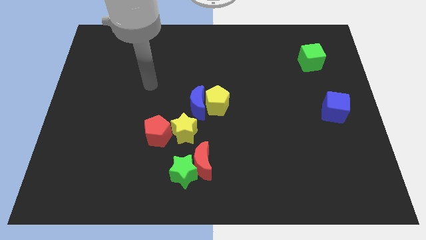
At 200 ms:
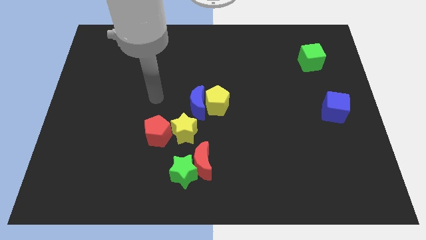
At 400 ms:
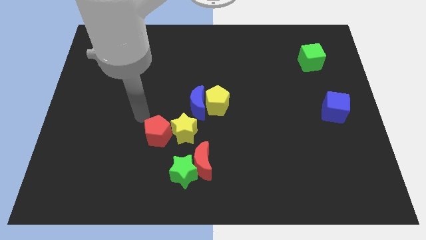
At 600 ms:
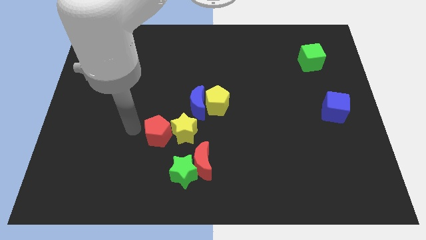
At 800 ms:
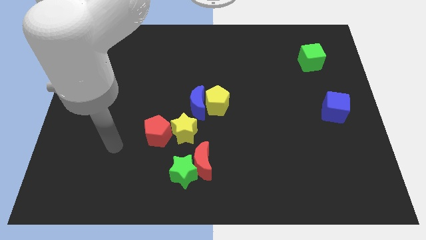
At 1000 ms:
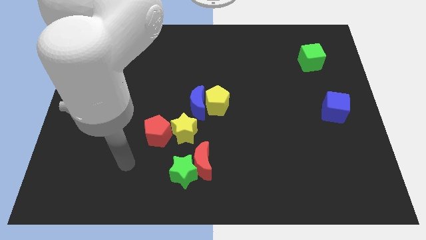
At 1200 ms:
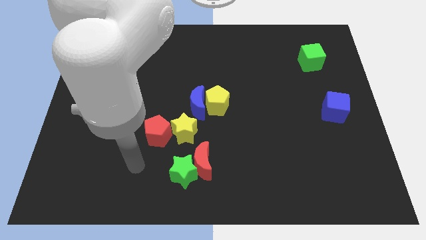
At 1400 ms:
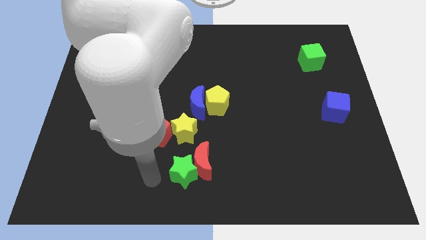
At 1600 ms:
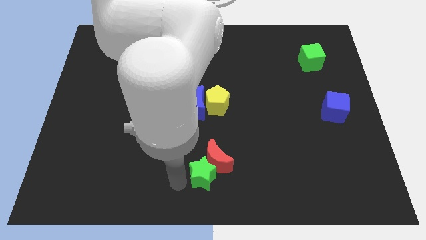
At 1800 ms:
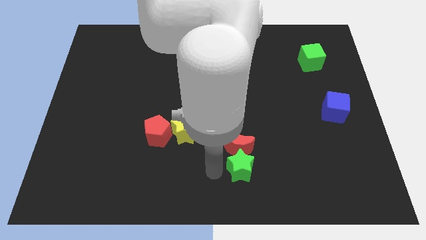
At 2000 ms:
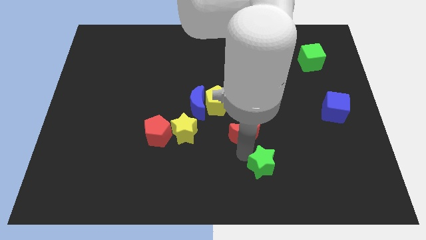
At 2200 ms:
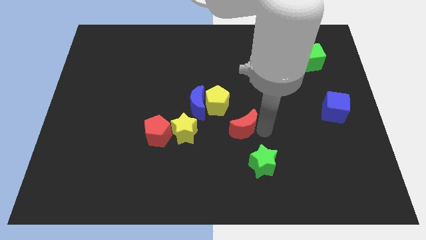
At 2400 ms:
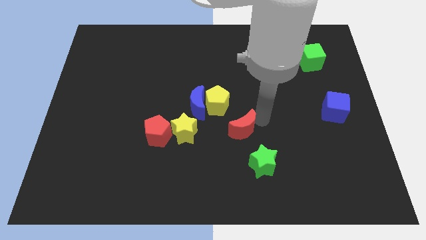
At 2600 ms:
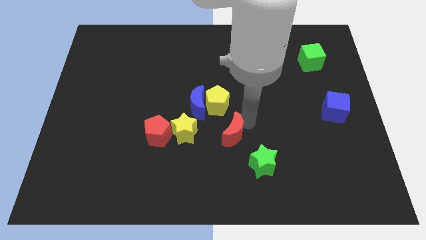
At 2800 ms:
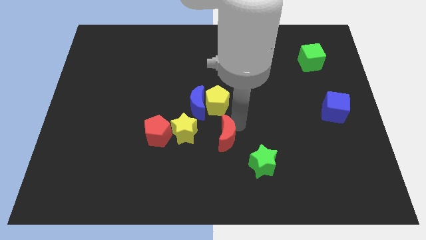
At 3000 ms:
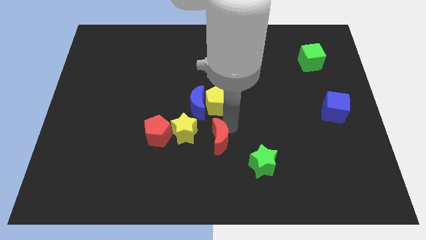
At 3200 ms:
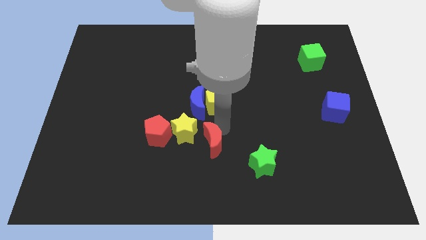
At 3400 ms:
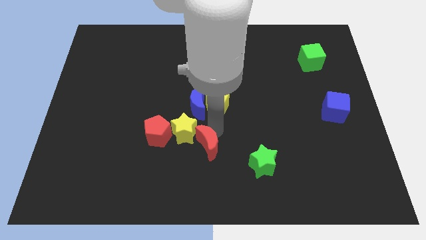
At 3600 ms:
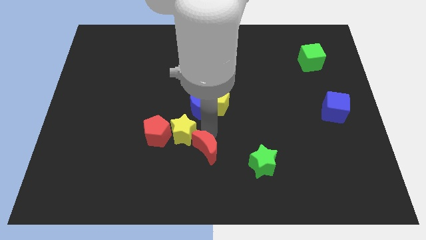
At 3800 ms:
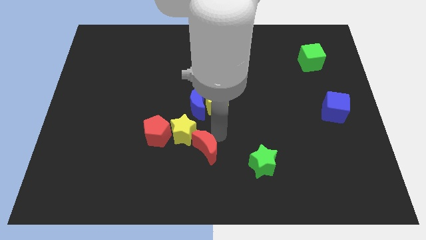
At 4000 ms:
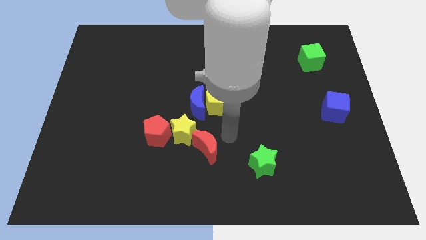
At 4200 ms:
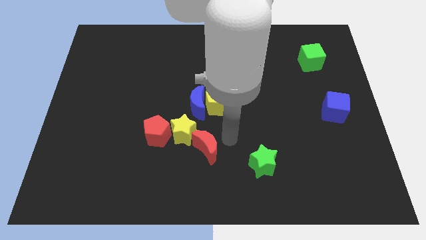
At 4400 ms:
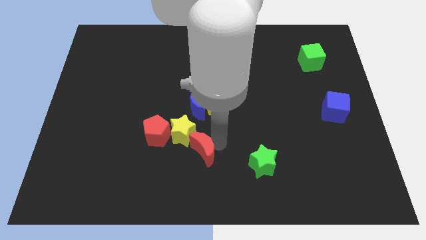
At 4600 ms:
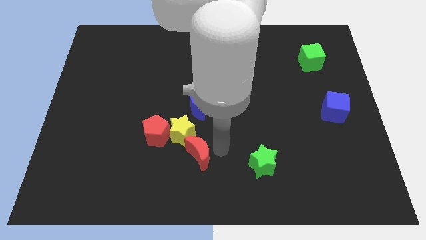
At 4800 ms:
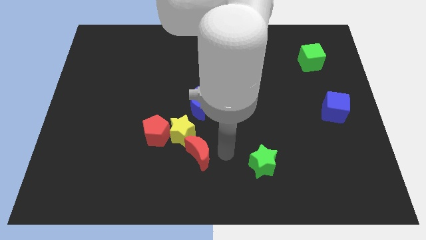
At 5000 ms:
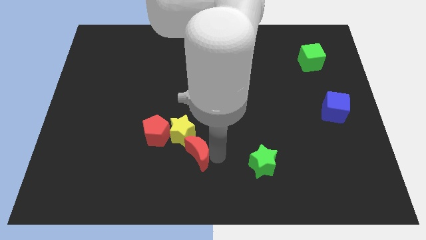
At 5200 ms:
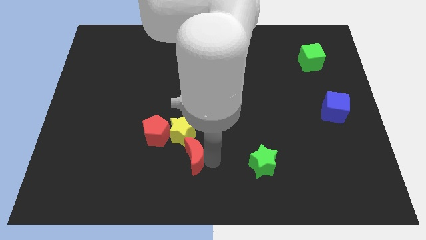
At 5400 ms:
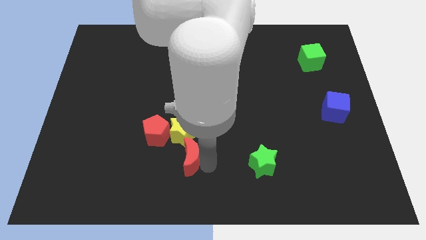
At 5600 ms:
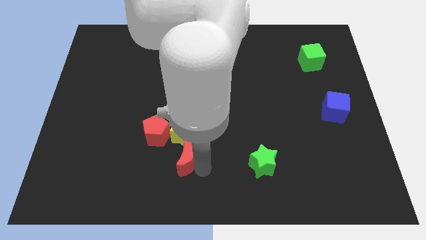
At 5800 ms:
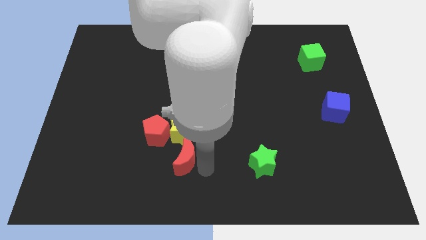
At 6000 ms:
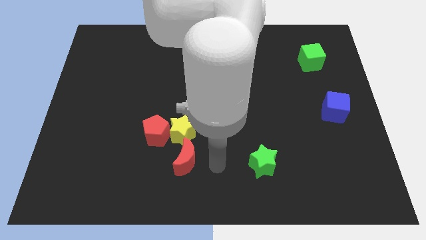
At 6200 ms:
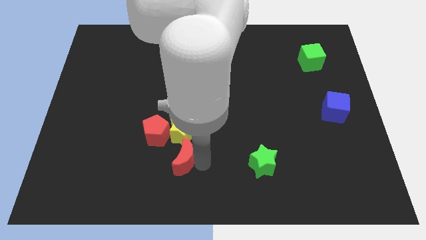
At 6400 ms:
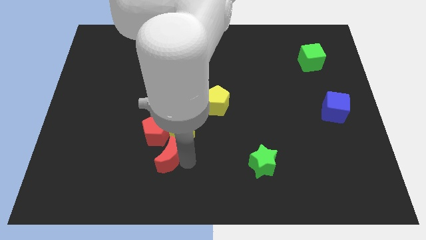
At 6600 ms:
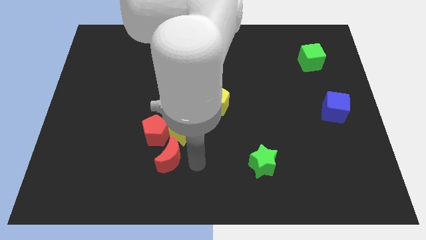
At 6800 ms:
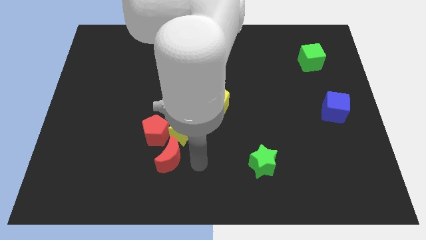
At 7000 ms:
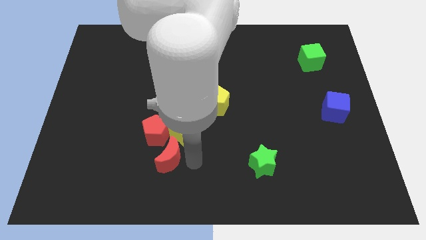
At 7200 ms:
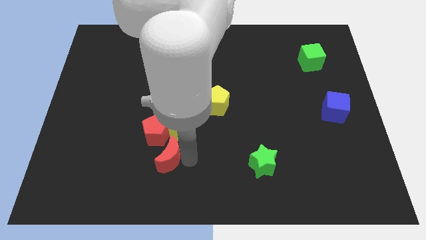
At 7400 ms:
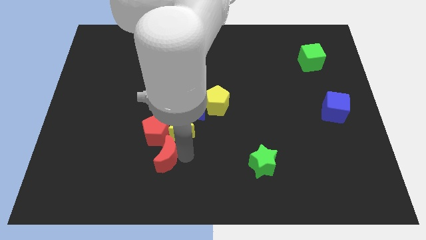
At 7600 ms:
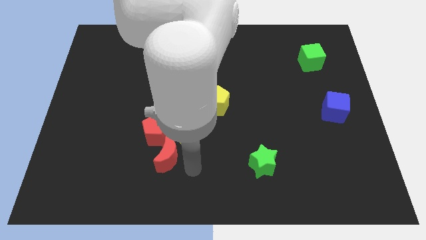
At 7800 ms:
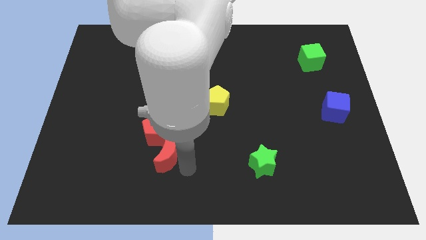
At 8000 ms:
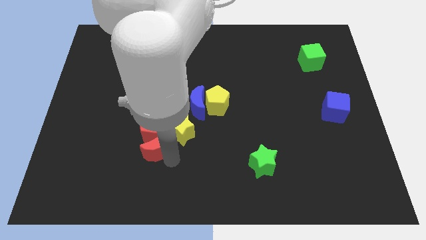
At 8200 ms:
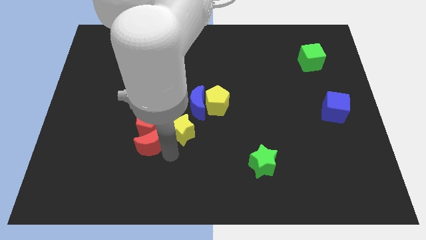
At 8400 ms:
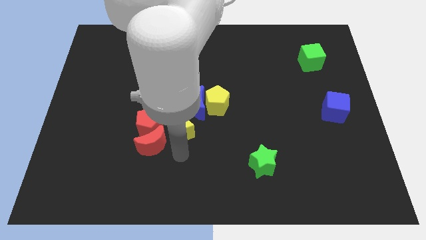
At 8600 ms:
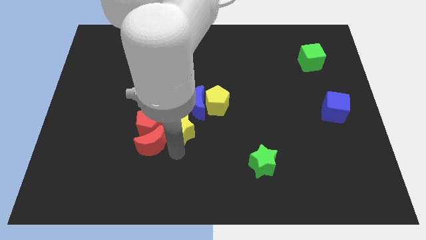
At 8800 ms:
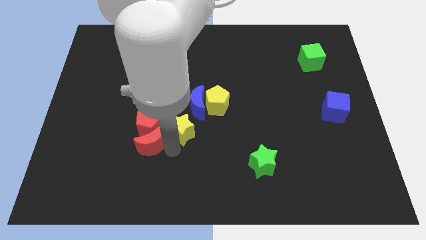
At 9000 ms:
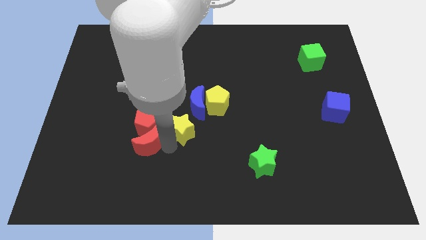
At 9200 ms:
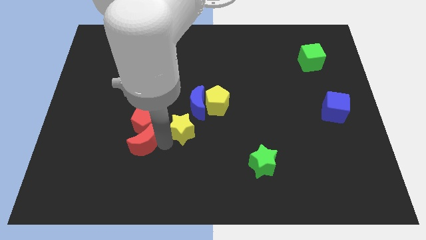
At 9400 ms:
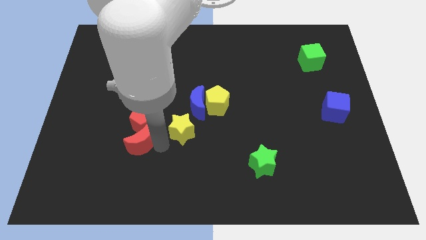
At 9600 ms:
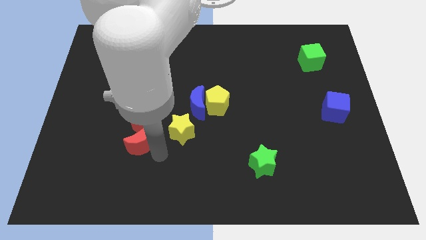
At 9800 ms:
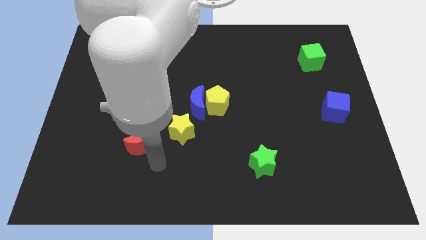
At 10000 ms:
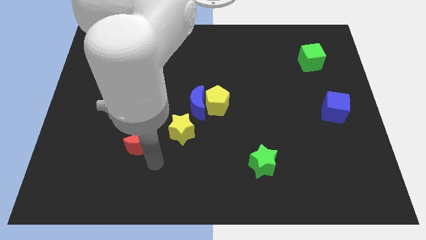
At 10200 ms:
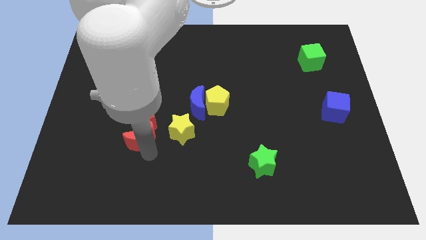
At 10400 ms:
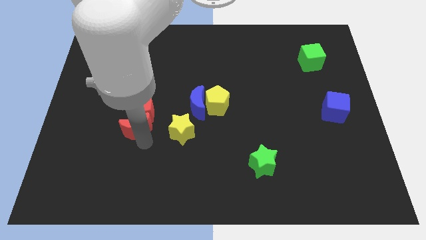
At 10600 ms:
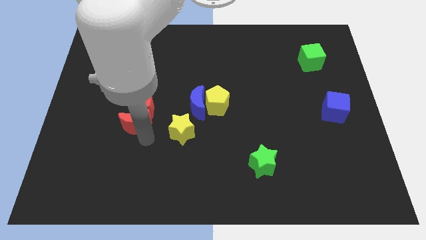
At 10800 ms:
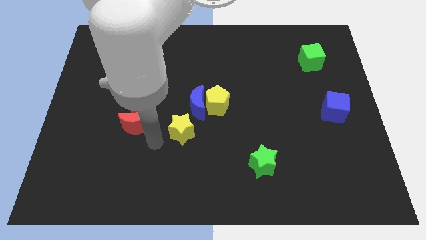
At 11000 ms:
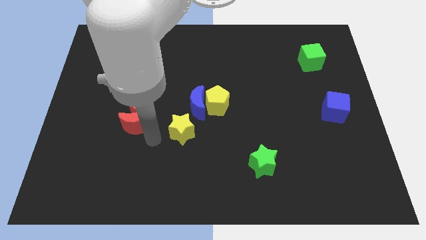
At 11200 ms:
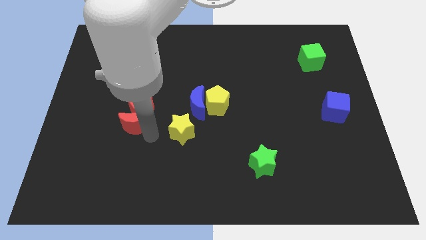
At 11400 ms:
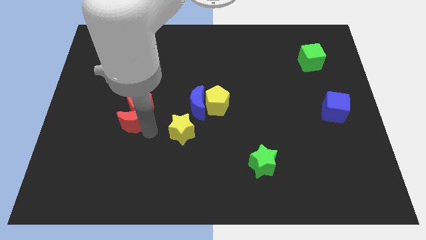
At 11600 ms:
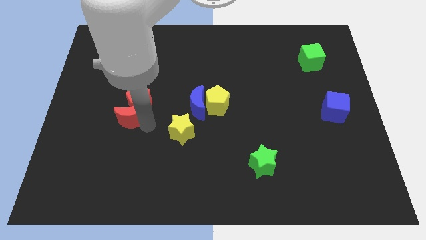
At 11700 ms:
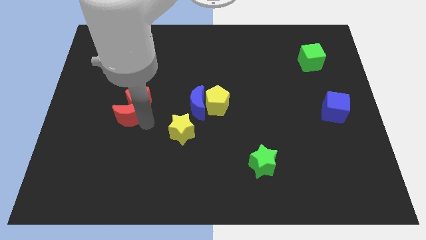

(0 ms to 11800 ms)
push the red moon up and to the left

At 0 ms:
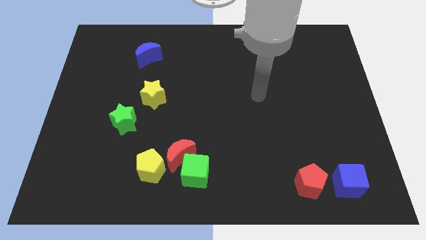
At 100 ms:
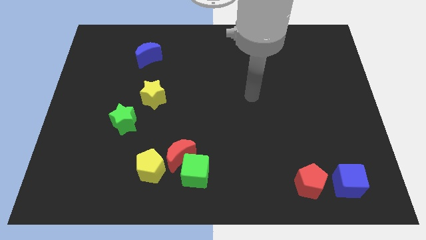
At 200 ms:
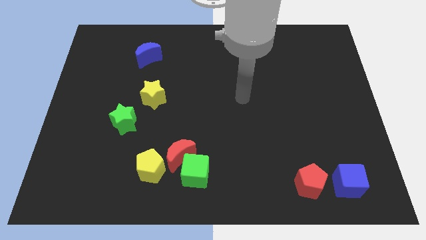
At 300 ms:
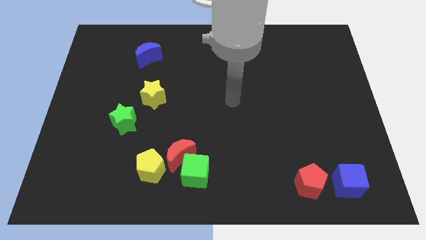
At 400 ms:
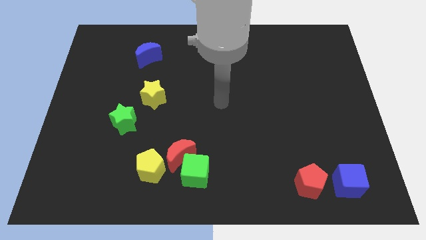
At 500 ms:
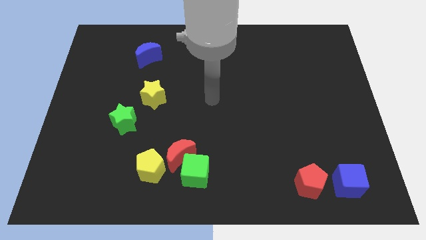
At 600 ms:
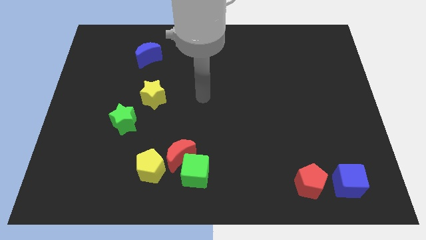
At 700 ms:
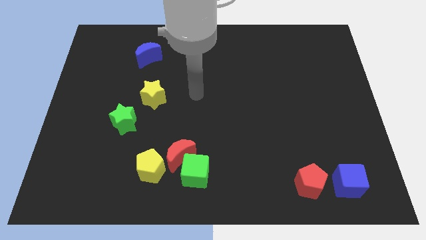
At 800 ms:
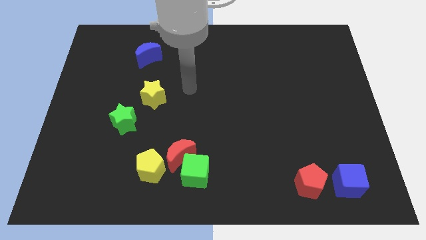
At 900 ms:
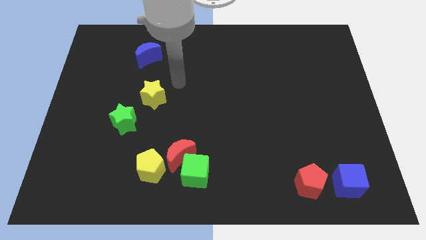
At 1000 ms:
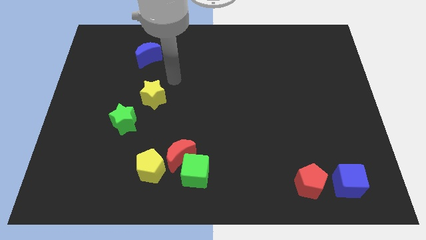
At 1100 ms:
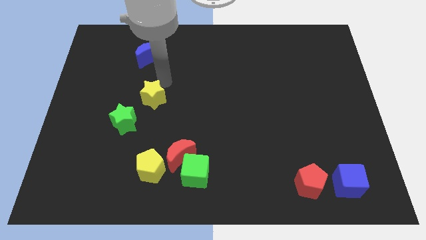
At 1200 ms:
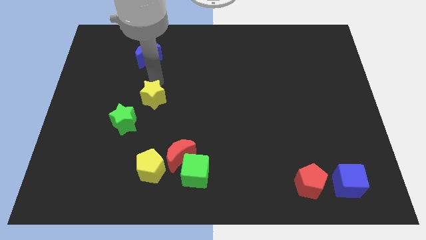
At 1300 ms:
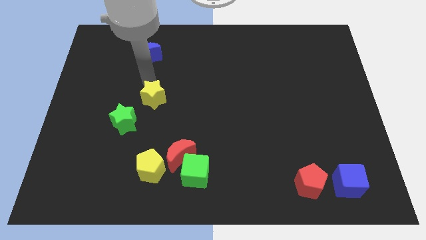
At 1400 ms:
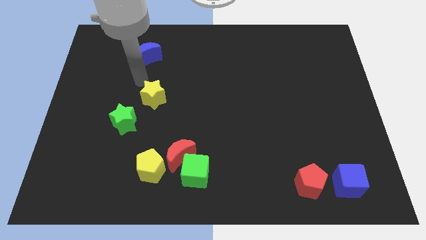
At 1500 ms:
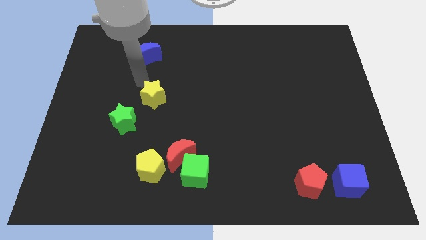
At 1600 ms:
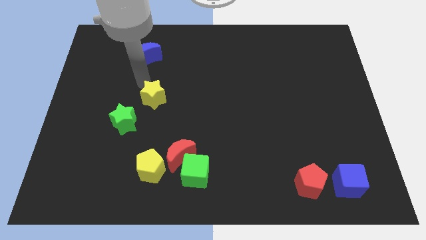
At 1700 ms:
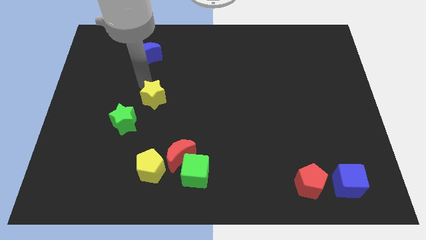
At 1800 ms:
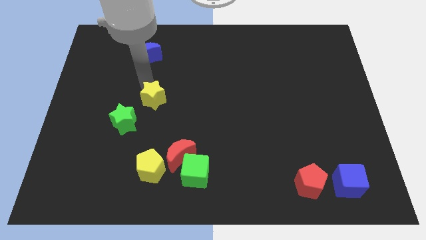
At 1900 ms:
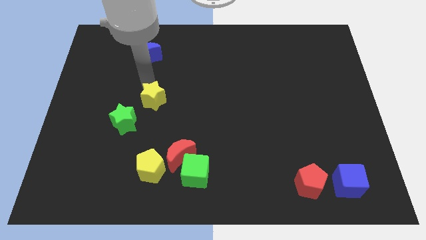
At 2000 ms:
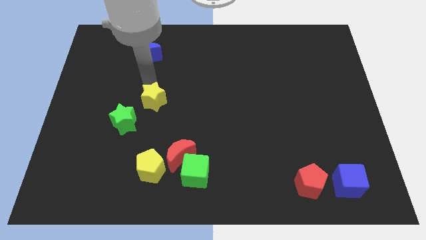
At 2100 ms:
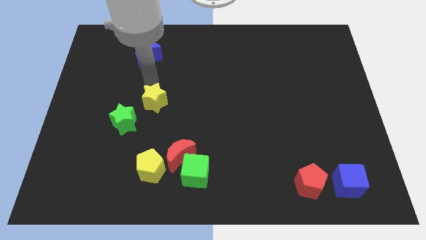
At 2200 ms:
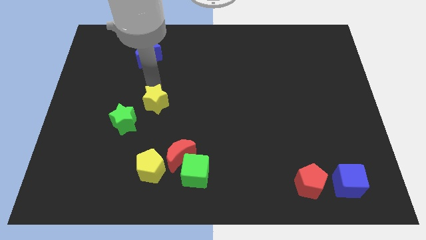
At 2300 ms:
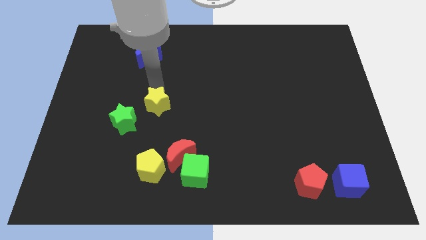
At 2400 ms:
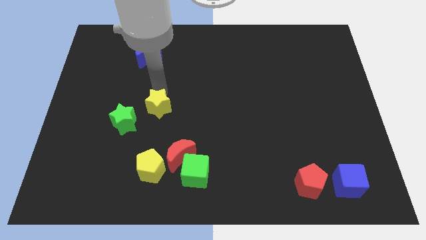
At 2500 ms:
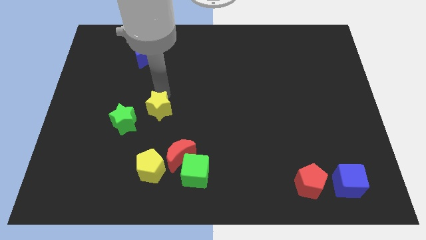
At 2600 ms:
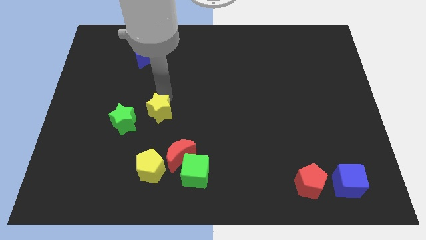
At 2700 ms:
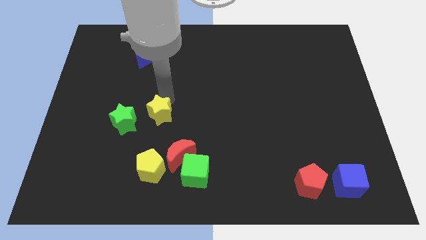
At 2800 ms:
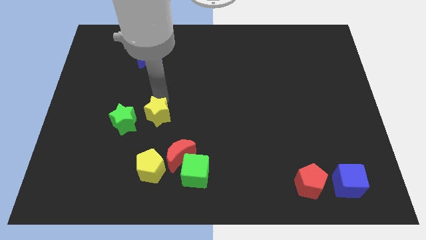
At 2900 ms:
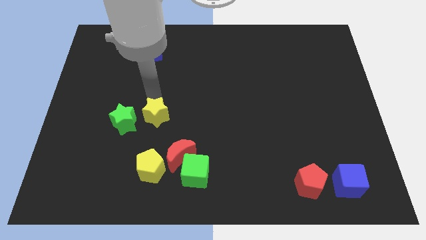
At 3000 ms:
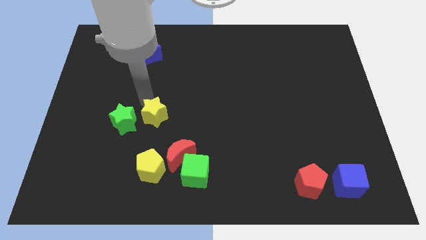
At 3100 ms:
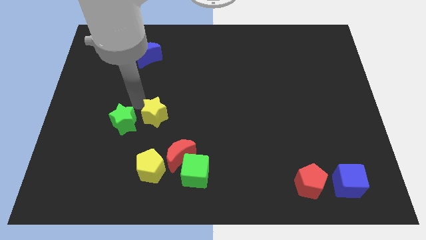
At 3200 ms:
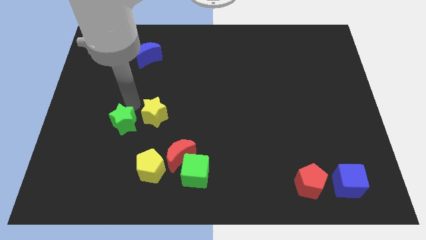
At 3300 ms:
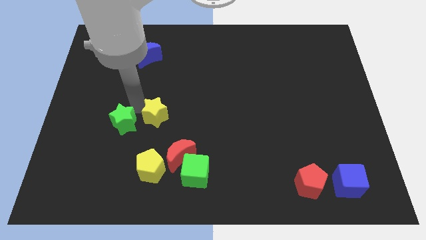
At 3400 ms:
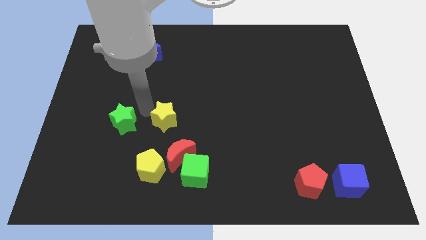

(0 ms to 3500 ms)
push the yellow star a bit downwards and to the right
